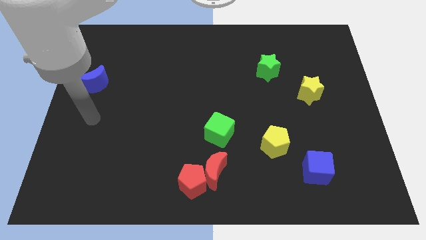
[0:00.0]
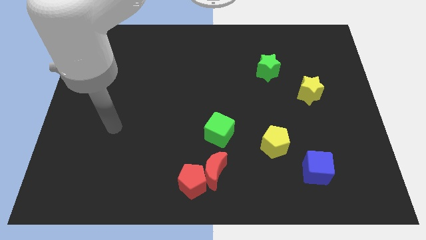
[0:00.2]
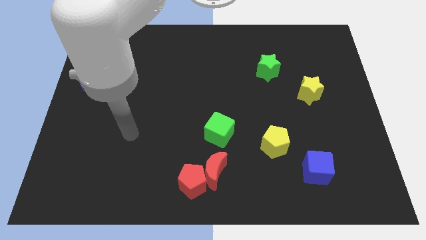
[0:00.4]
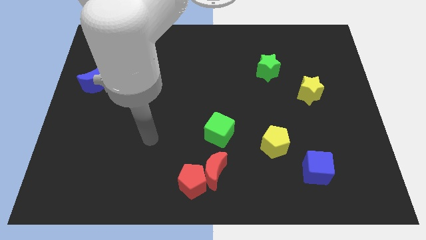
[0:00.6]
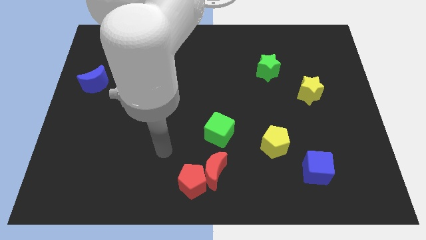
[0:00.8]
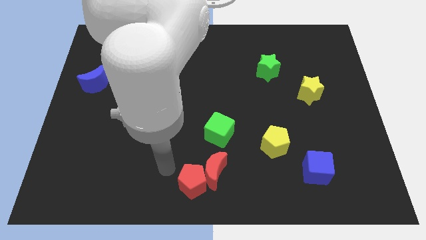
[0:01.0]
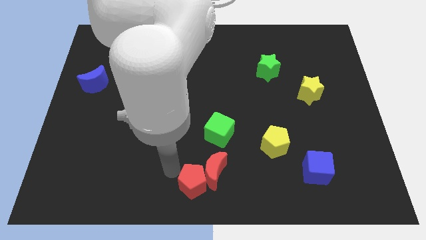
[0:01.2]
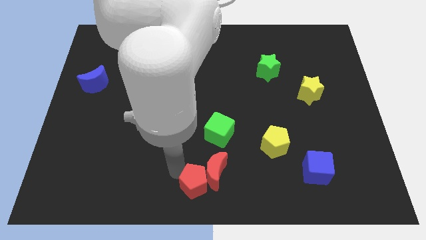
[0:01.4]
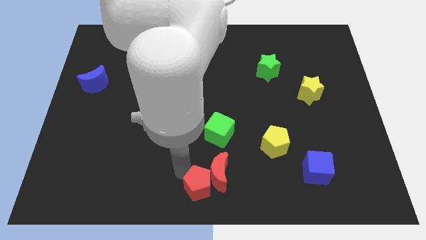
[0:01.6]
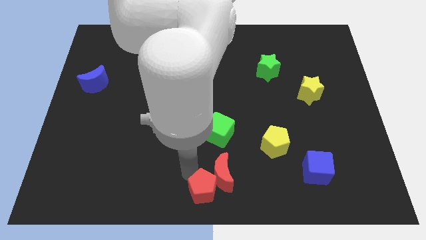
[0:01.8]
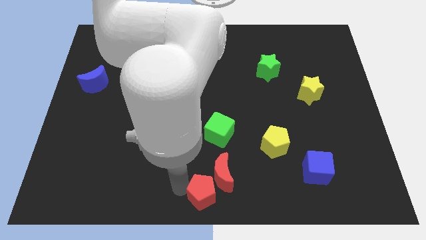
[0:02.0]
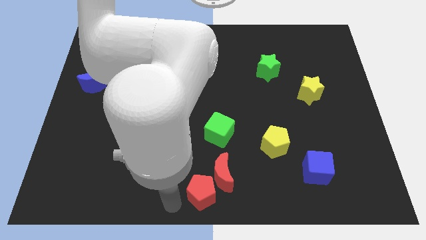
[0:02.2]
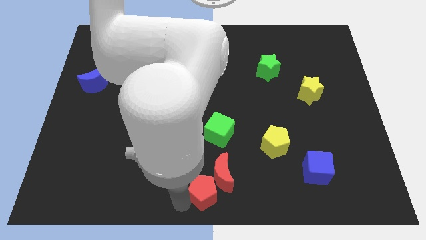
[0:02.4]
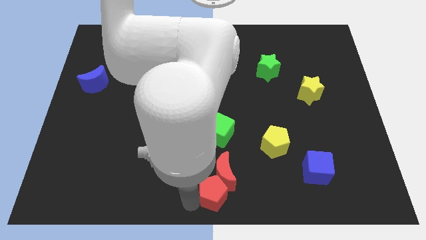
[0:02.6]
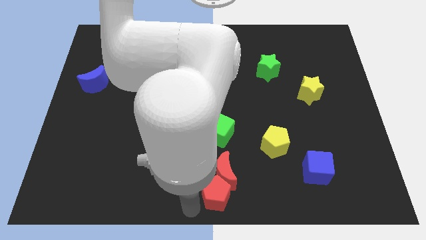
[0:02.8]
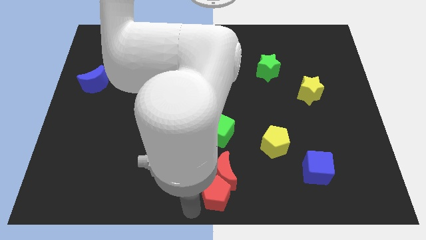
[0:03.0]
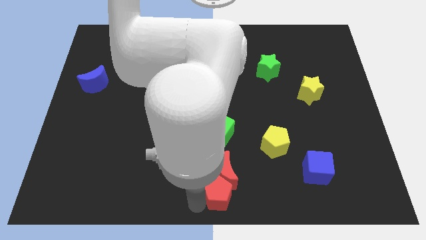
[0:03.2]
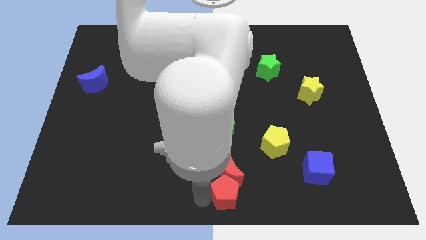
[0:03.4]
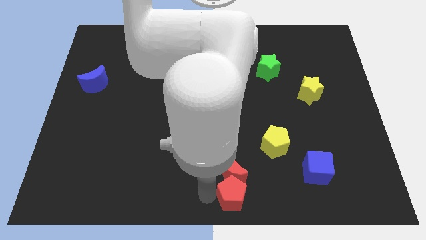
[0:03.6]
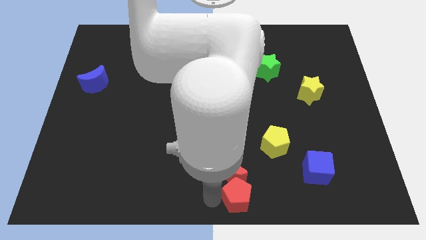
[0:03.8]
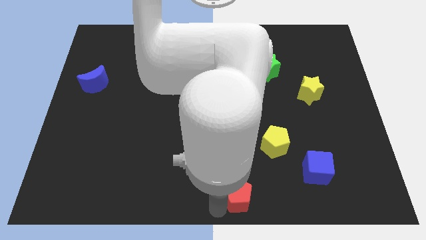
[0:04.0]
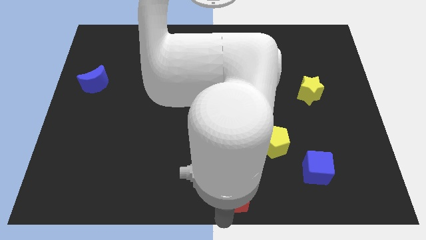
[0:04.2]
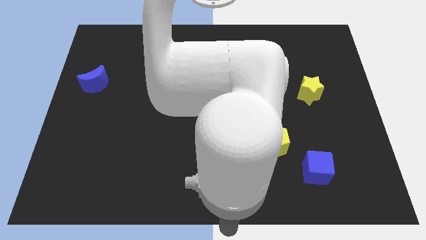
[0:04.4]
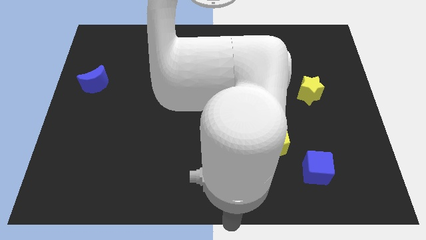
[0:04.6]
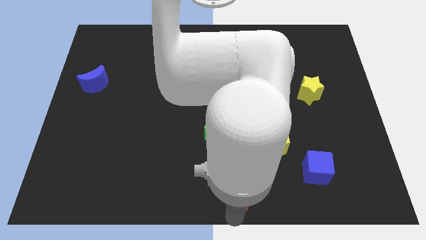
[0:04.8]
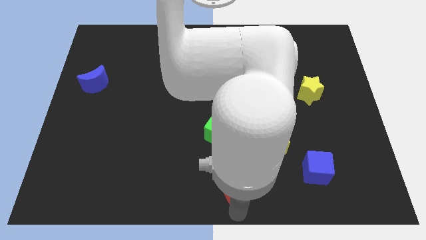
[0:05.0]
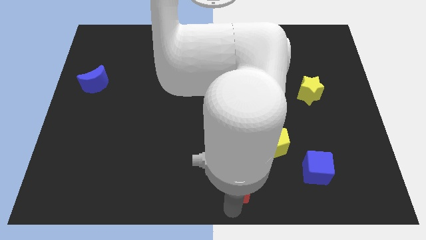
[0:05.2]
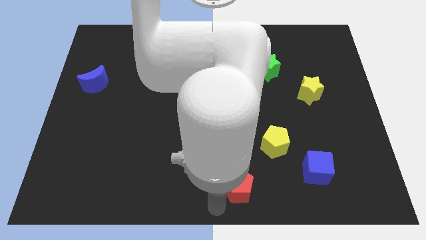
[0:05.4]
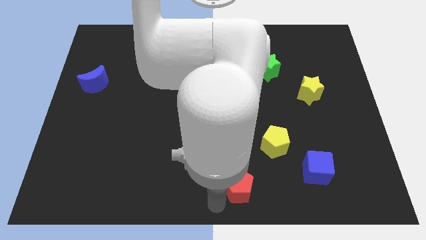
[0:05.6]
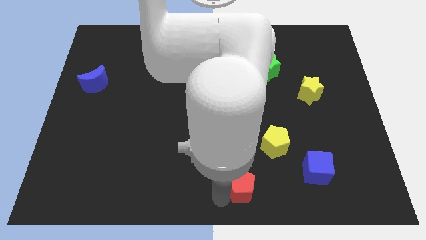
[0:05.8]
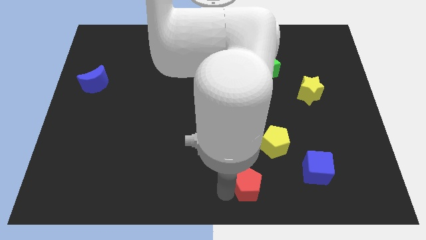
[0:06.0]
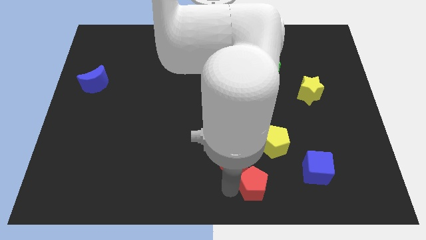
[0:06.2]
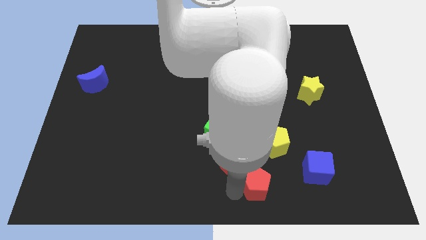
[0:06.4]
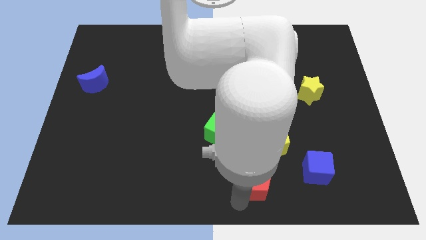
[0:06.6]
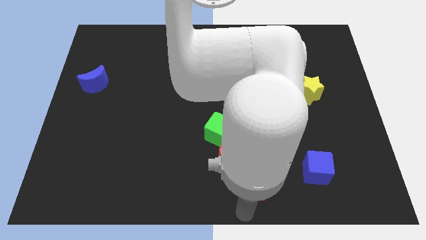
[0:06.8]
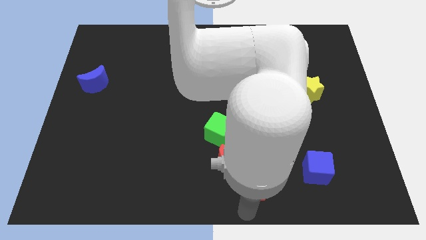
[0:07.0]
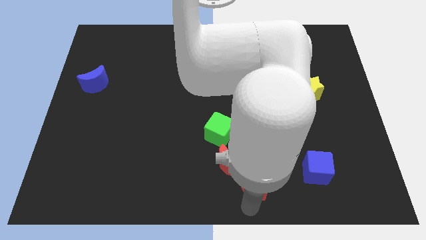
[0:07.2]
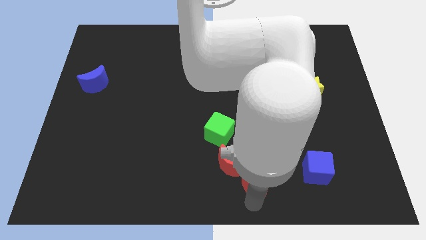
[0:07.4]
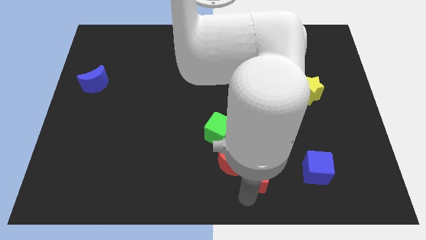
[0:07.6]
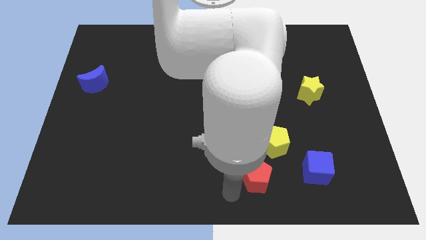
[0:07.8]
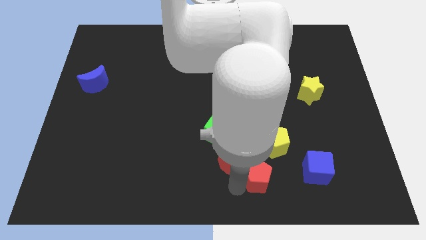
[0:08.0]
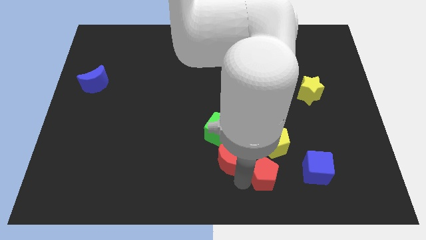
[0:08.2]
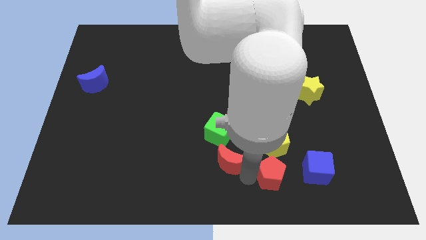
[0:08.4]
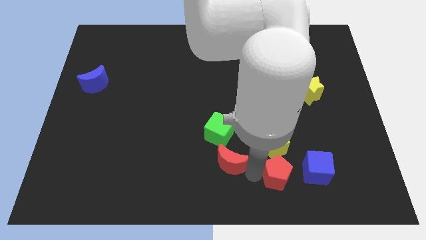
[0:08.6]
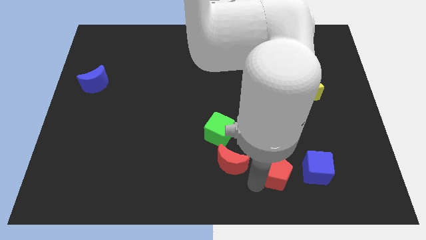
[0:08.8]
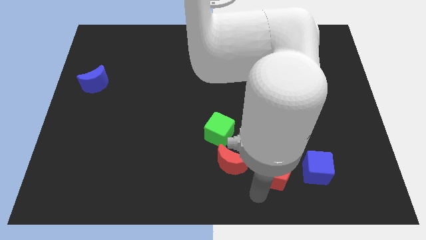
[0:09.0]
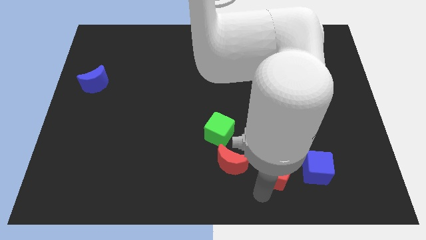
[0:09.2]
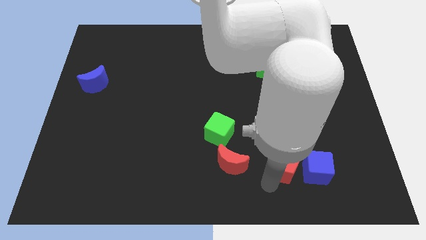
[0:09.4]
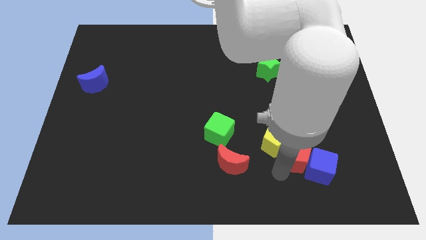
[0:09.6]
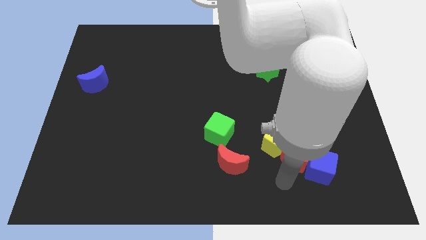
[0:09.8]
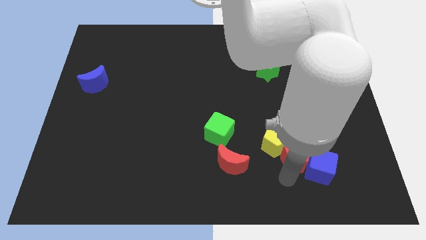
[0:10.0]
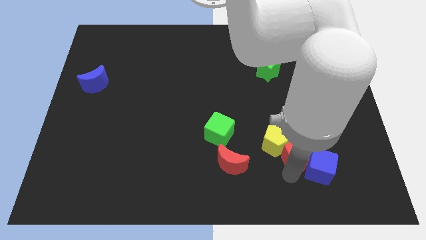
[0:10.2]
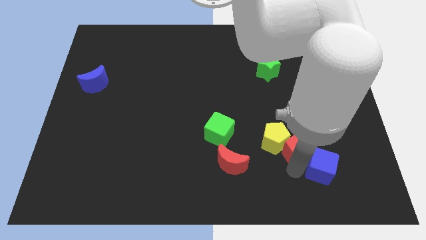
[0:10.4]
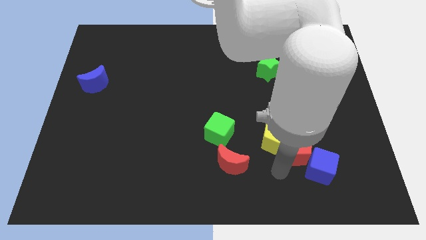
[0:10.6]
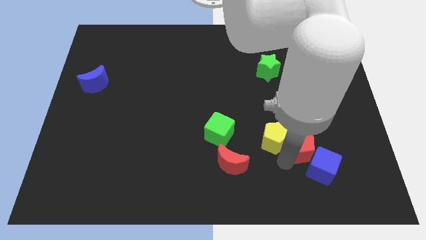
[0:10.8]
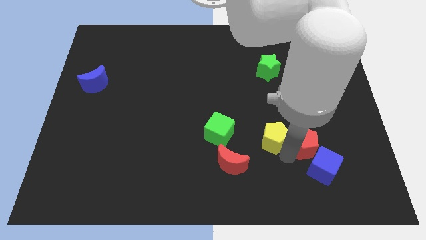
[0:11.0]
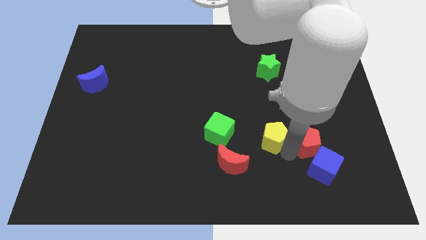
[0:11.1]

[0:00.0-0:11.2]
put the red pentagon to the bottom side of the yellow star

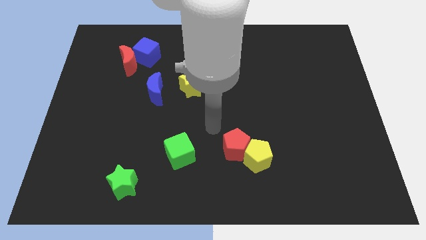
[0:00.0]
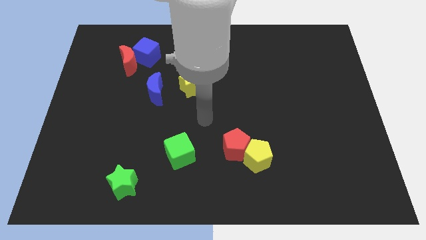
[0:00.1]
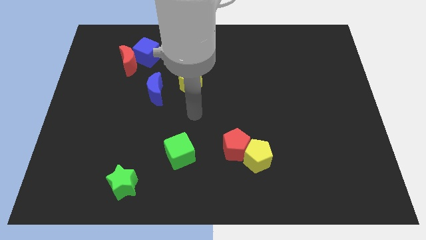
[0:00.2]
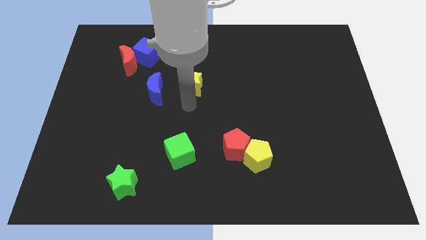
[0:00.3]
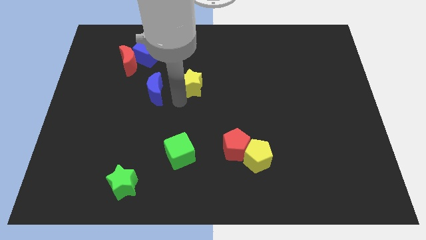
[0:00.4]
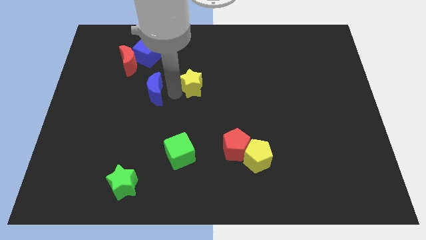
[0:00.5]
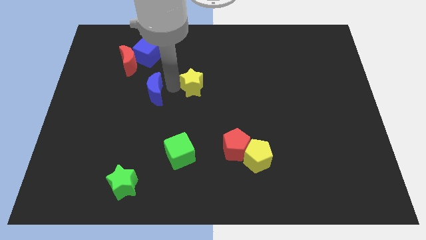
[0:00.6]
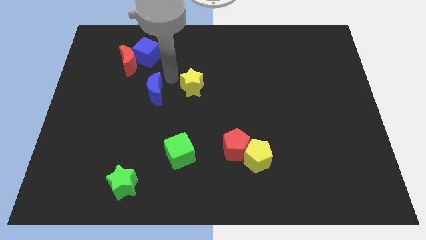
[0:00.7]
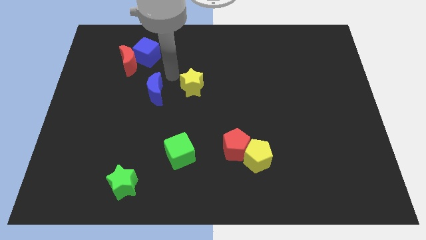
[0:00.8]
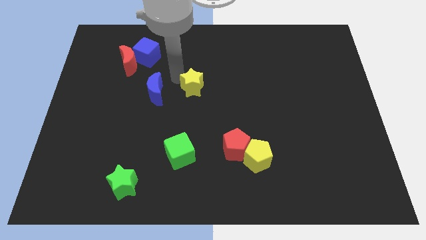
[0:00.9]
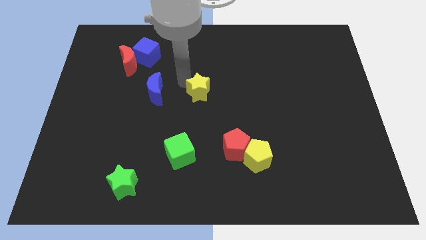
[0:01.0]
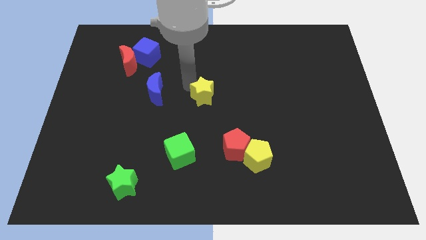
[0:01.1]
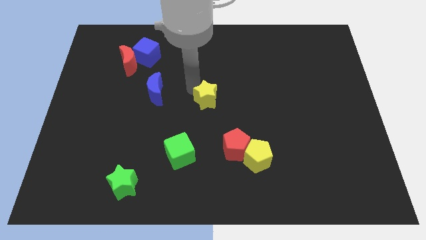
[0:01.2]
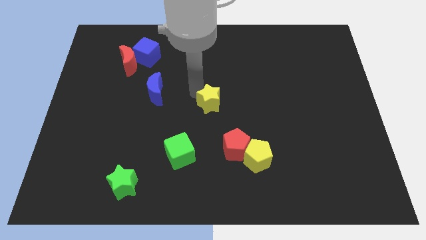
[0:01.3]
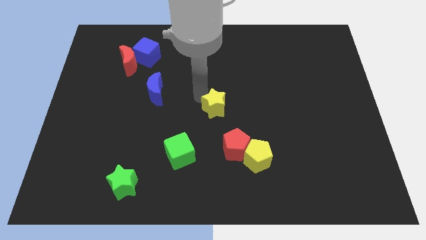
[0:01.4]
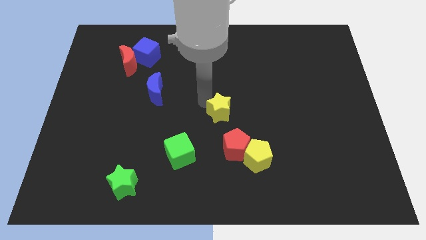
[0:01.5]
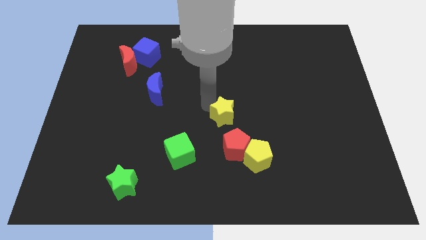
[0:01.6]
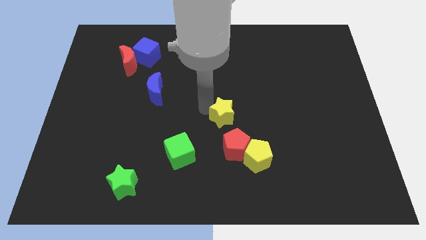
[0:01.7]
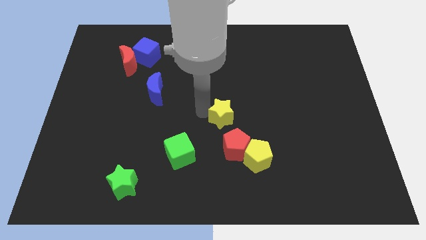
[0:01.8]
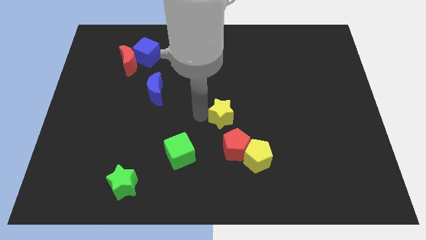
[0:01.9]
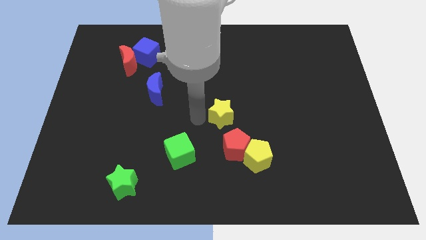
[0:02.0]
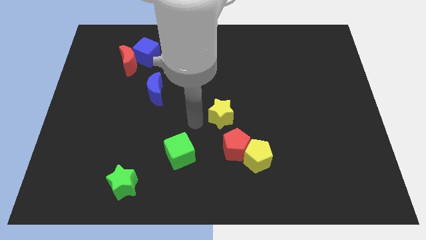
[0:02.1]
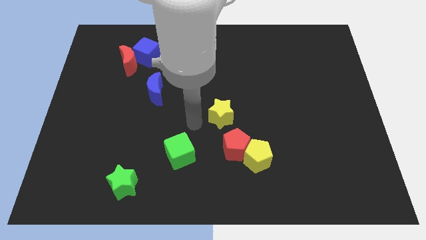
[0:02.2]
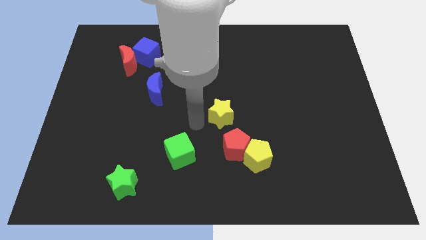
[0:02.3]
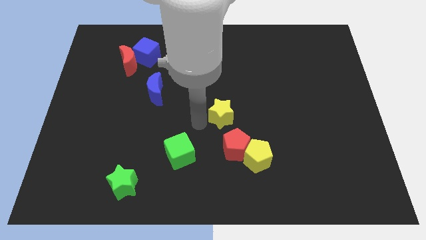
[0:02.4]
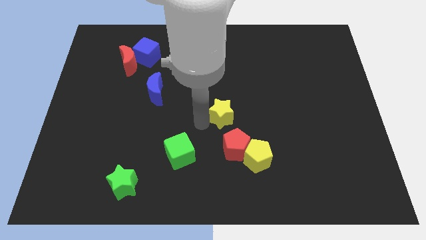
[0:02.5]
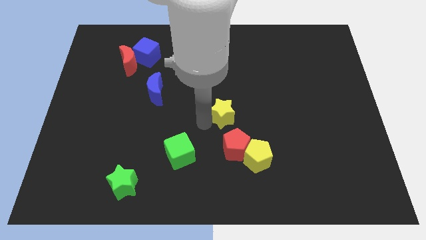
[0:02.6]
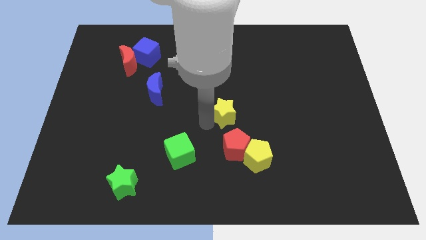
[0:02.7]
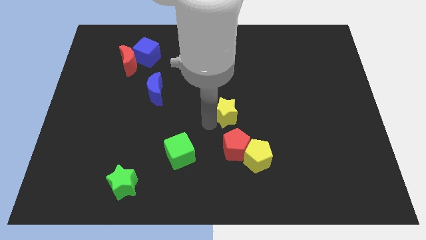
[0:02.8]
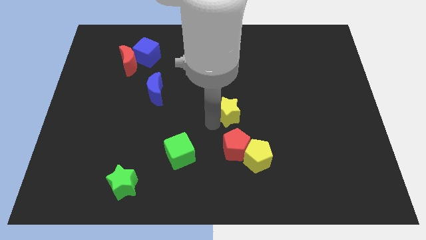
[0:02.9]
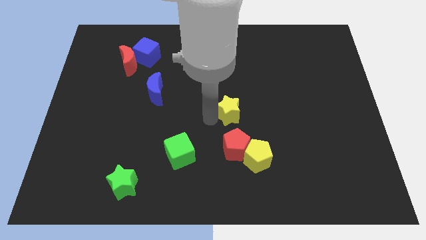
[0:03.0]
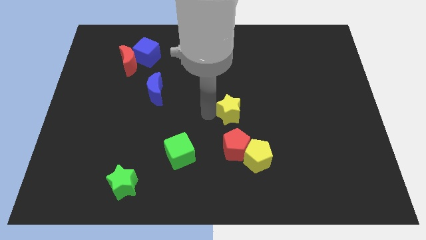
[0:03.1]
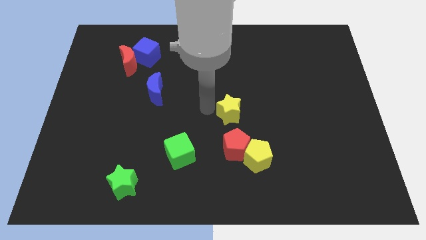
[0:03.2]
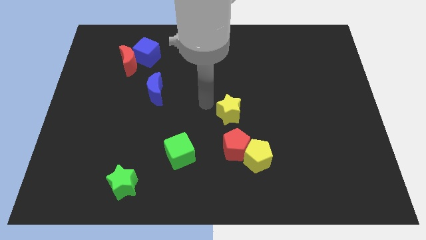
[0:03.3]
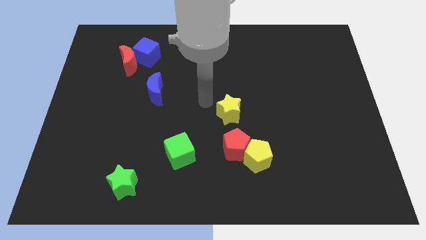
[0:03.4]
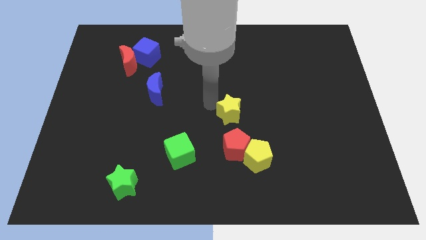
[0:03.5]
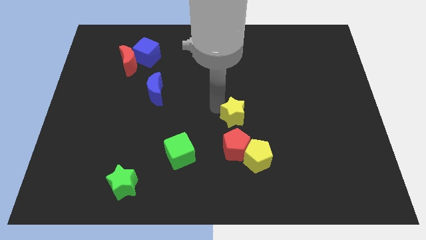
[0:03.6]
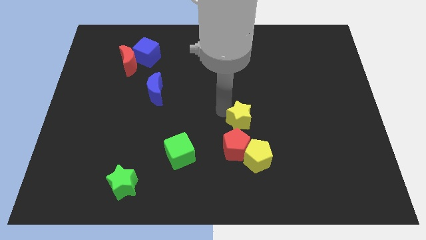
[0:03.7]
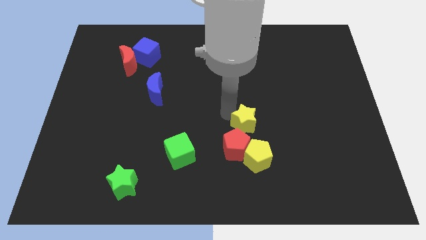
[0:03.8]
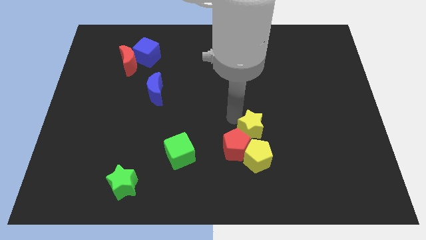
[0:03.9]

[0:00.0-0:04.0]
slide the yellow star to the right of the red pentagon
